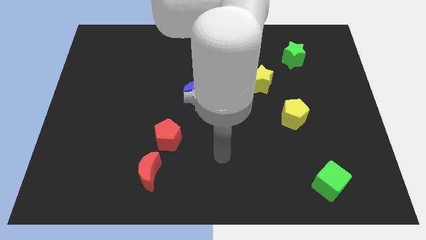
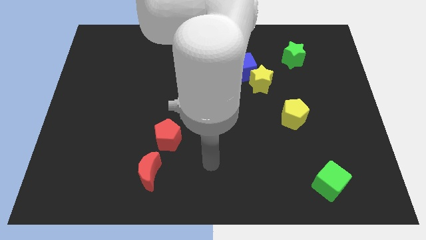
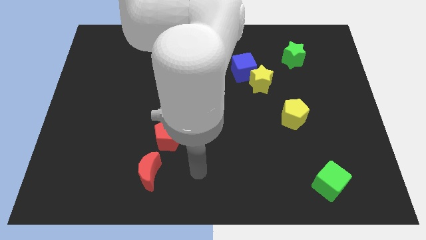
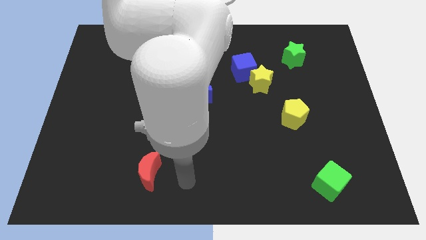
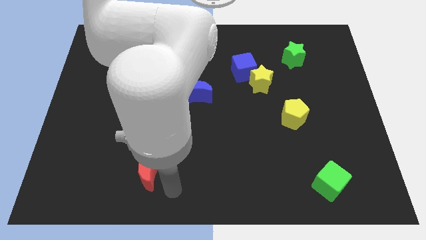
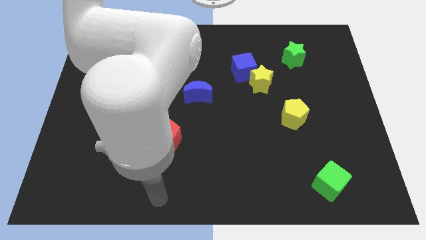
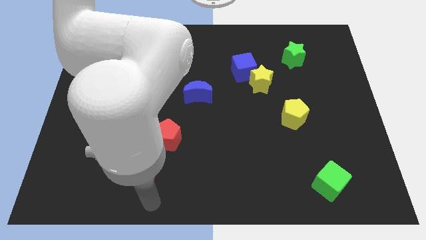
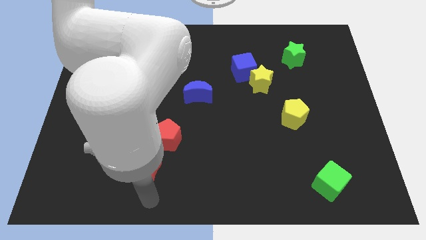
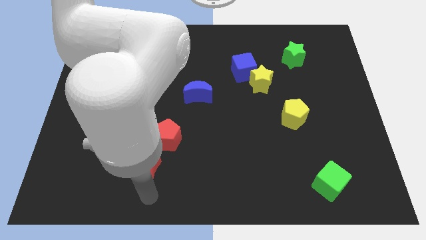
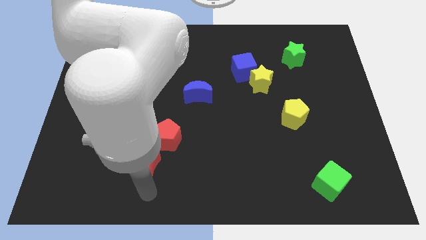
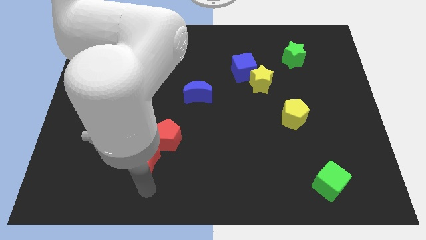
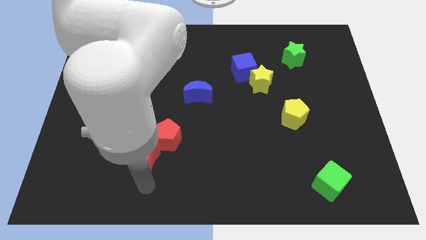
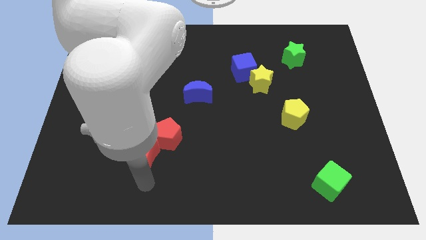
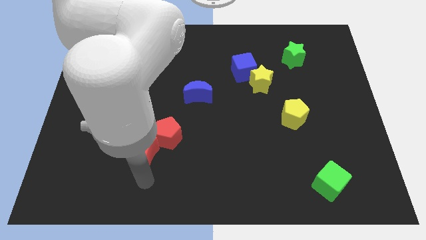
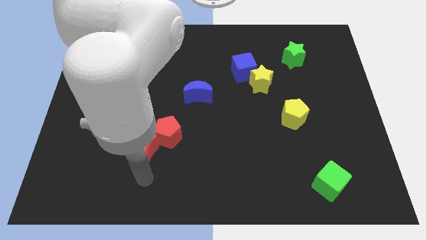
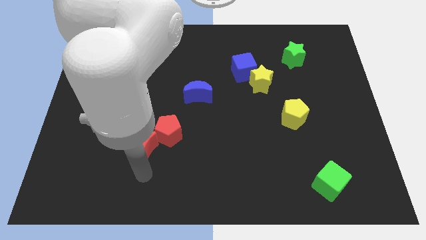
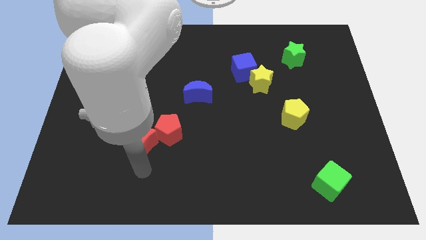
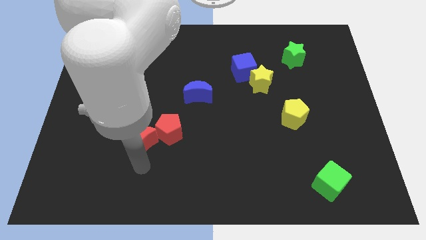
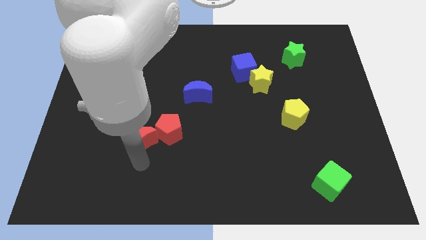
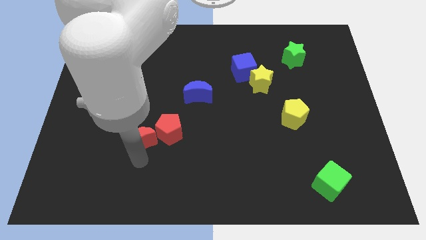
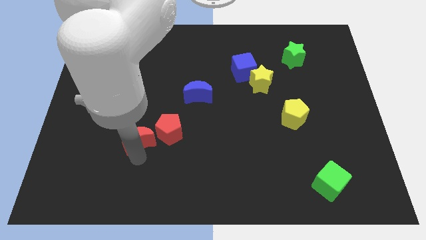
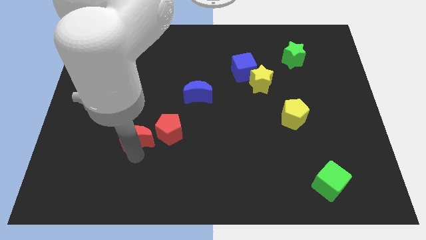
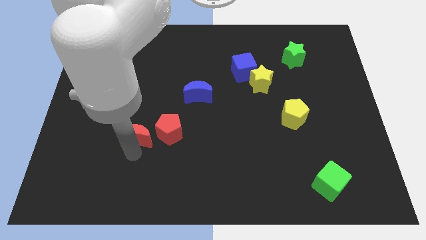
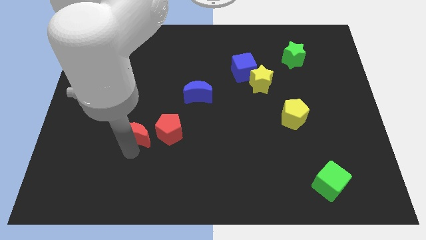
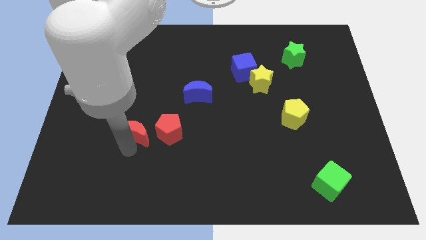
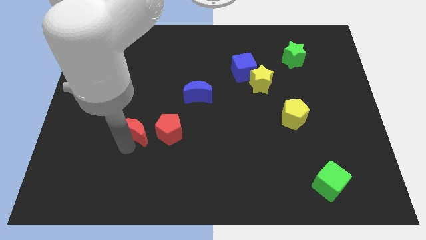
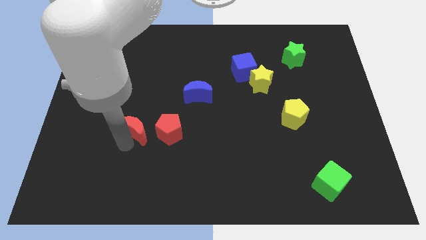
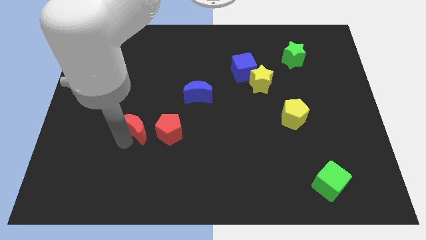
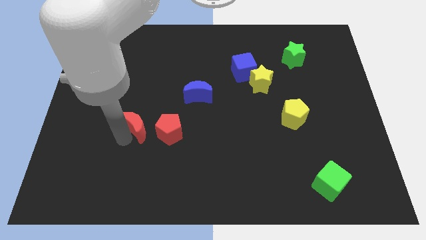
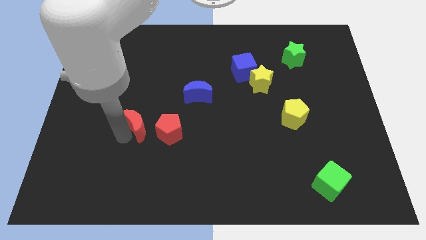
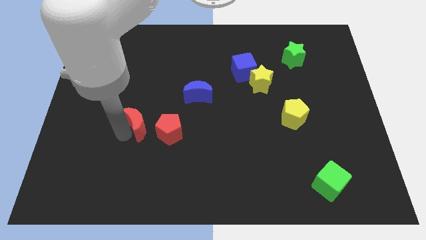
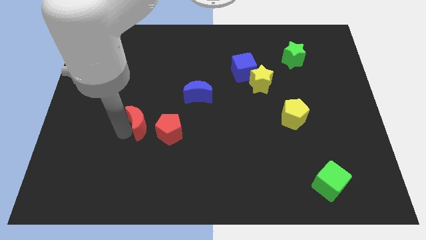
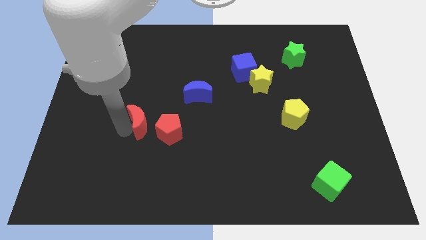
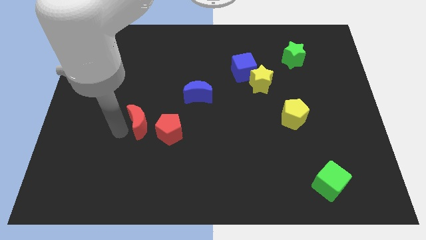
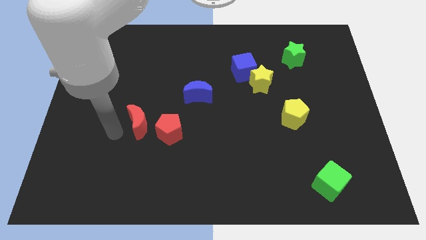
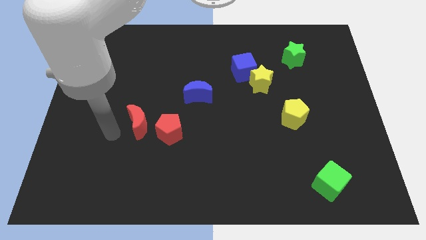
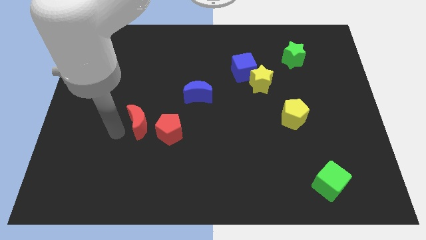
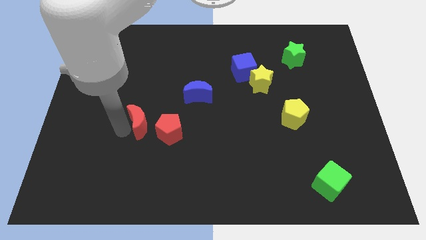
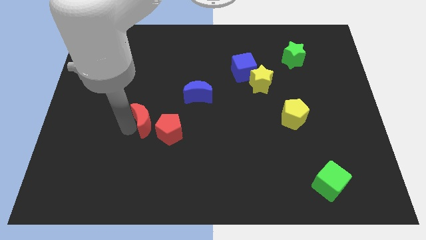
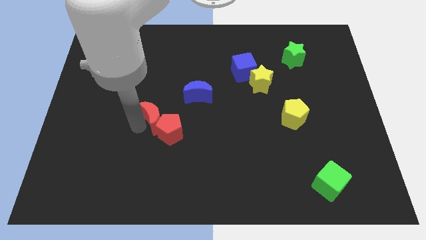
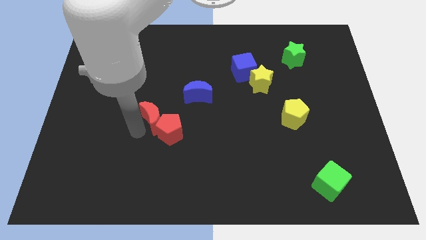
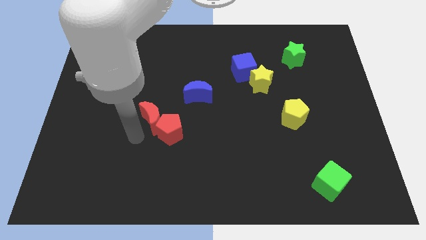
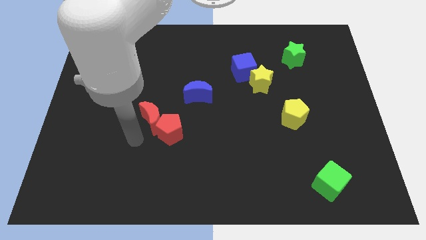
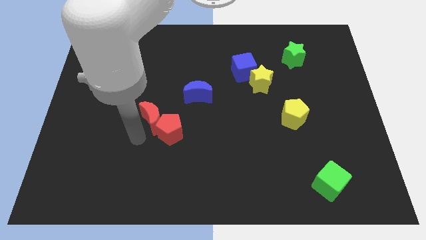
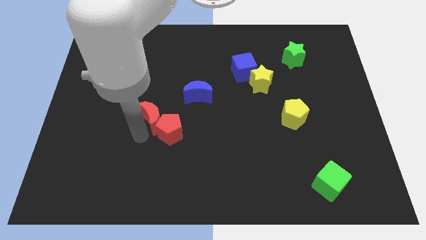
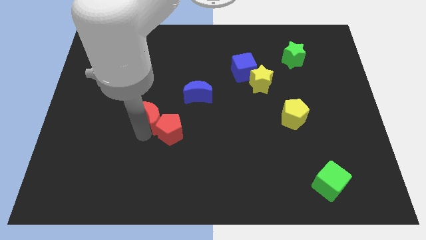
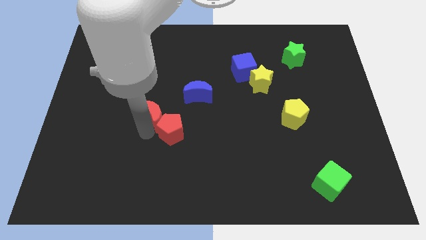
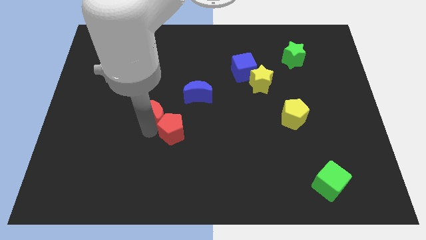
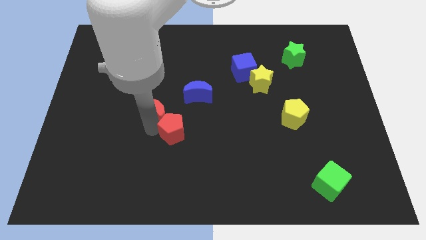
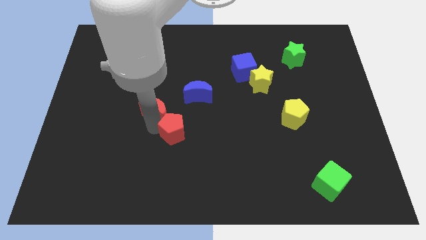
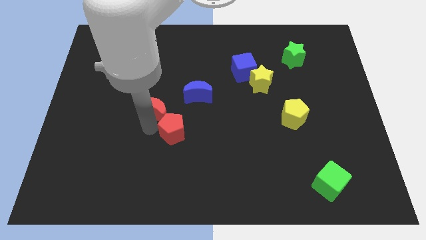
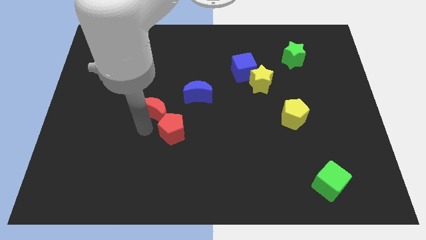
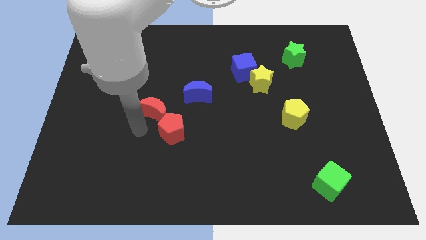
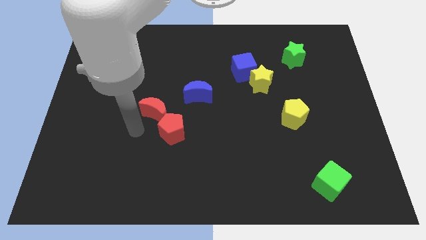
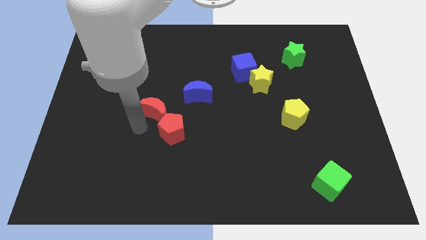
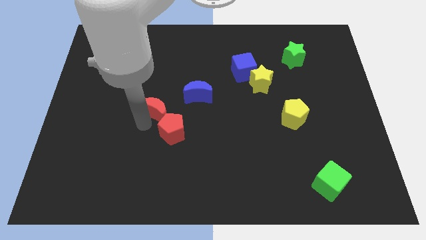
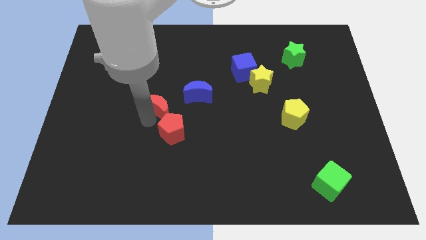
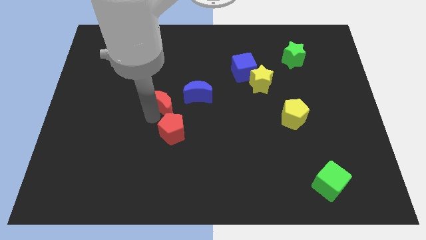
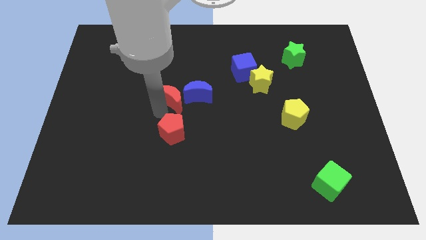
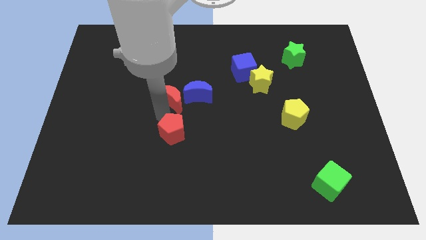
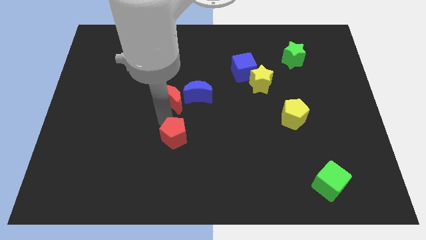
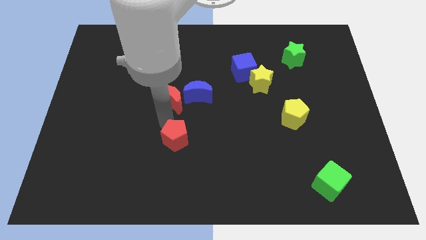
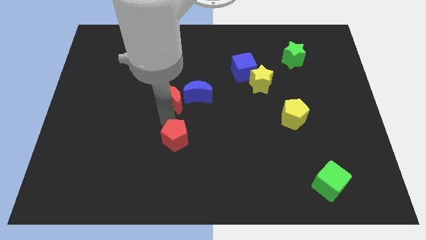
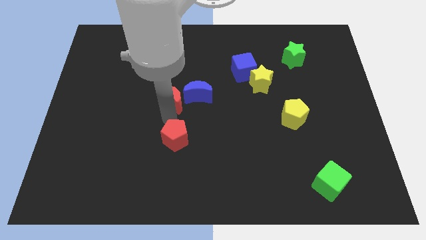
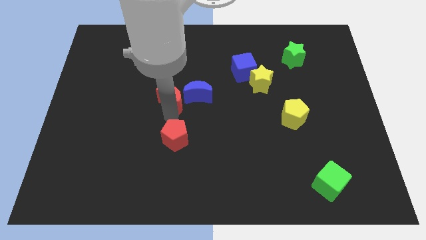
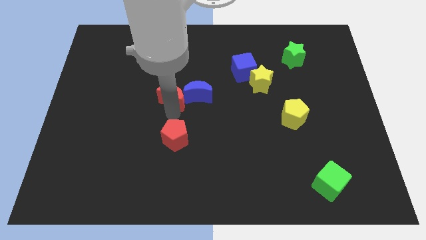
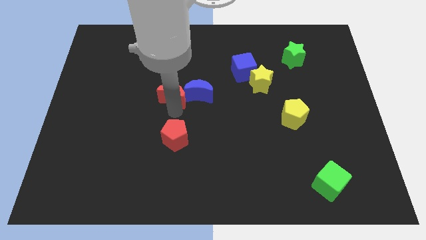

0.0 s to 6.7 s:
put the red moon diagonally up and to the left of the blue moon

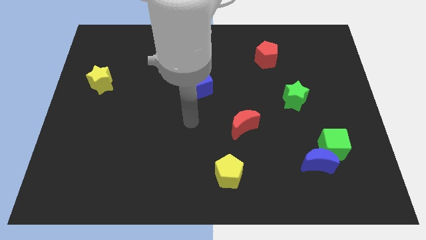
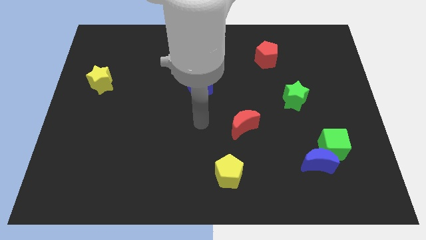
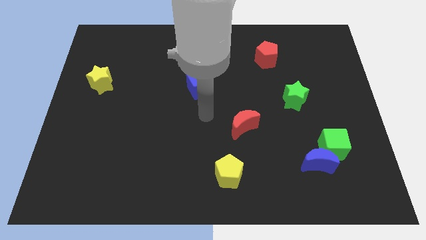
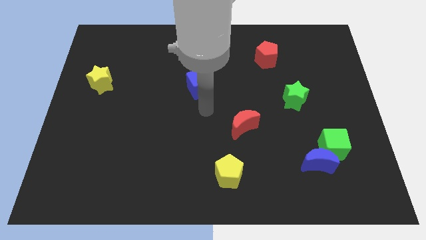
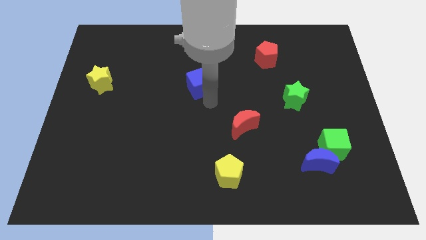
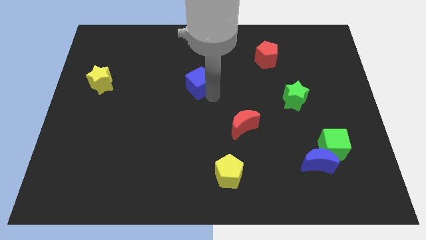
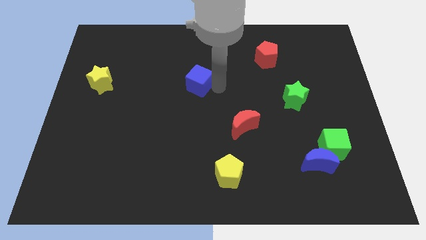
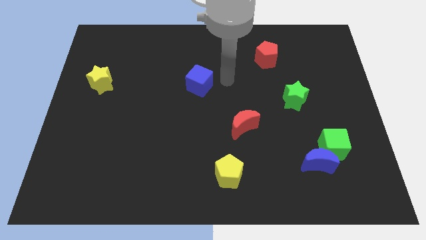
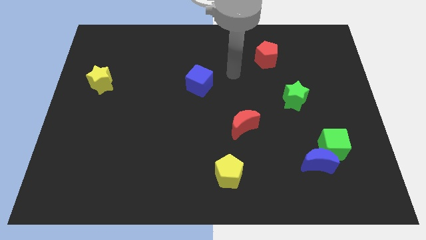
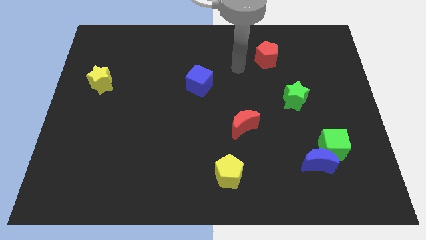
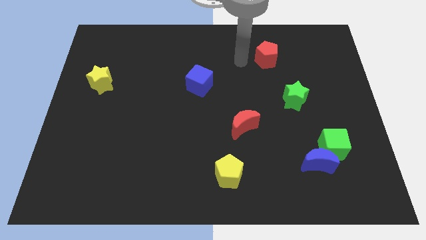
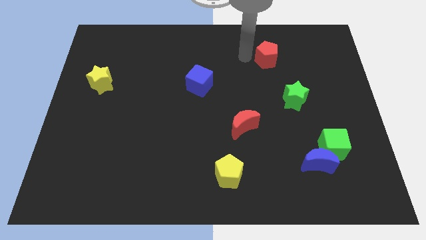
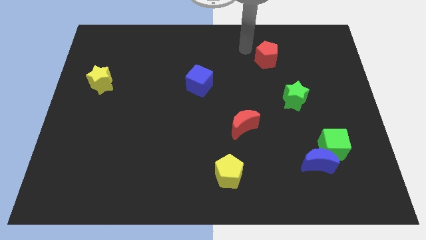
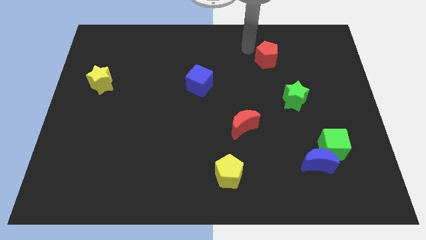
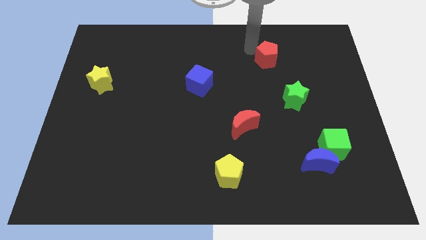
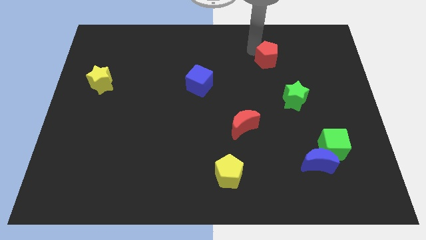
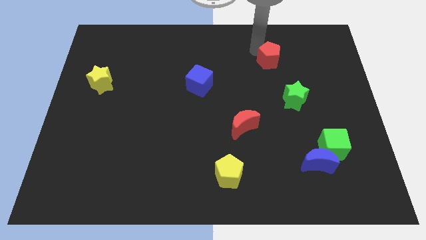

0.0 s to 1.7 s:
put the red pentagon to the top side of the green star
